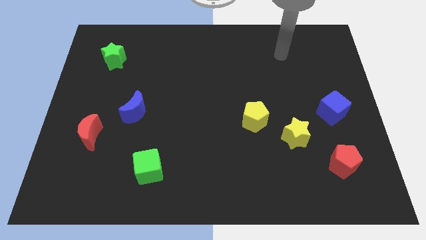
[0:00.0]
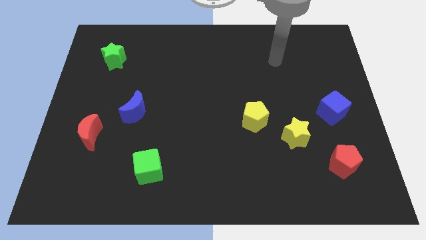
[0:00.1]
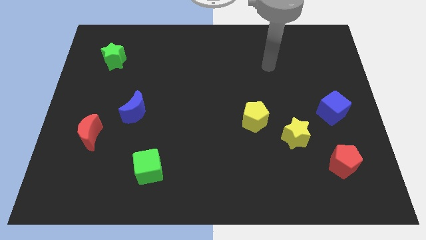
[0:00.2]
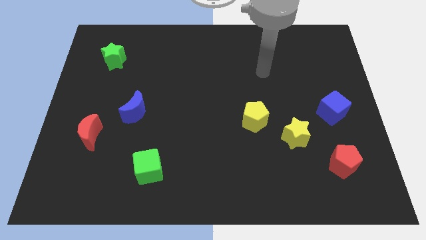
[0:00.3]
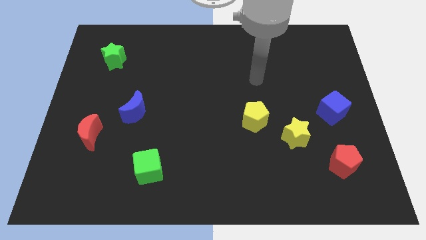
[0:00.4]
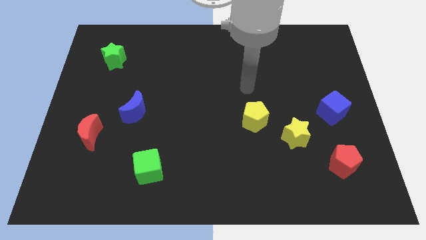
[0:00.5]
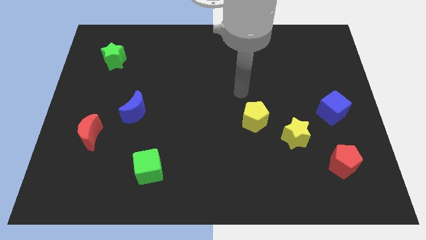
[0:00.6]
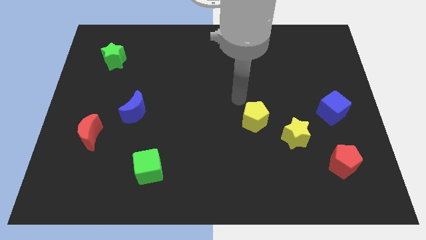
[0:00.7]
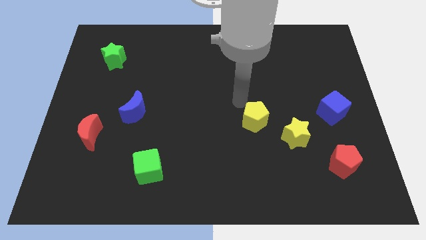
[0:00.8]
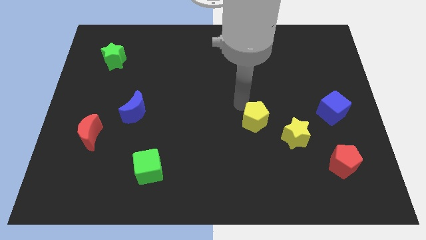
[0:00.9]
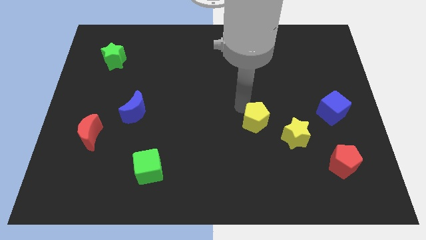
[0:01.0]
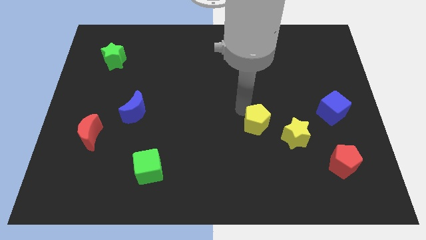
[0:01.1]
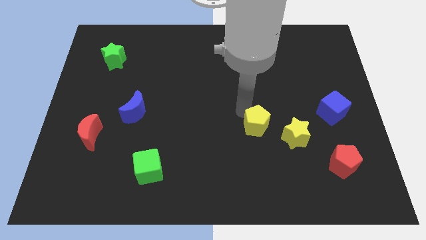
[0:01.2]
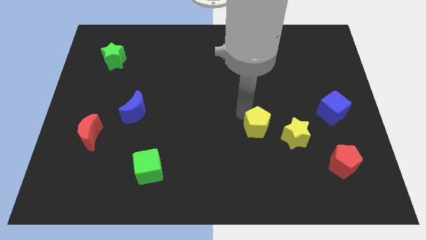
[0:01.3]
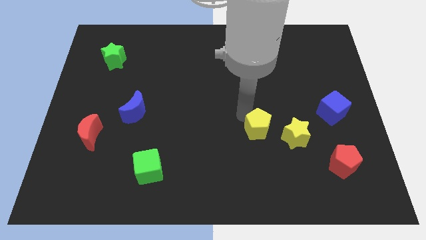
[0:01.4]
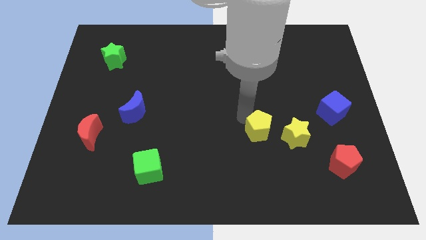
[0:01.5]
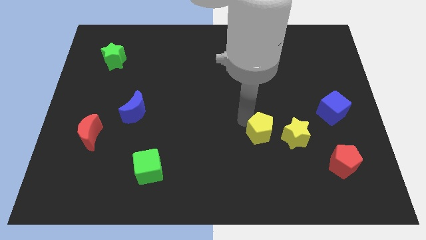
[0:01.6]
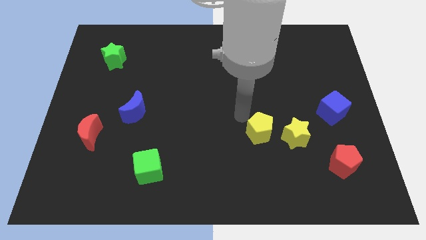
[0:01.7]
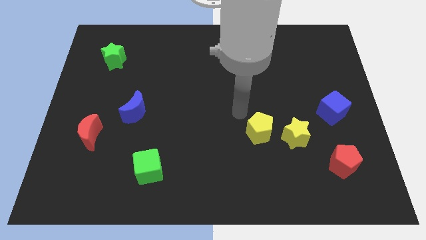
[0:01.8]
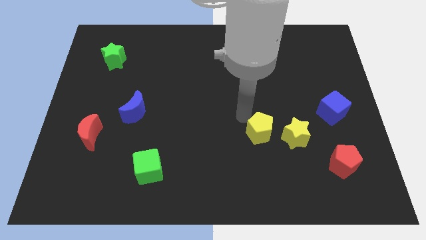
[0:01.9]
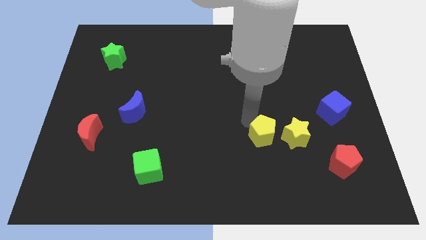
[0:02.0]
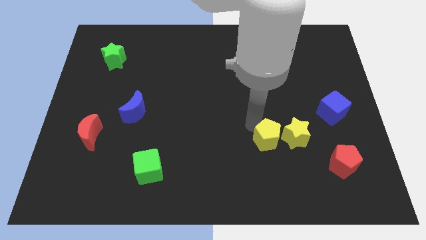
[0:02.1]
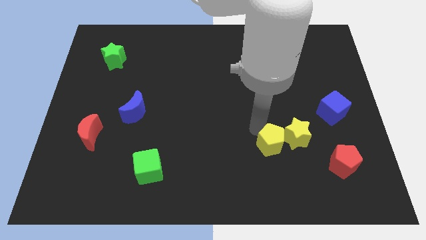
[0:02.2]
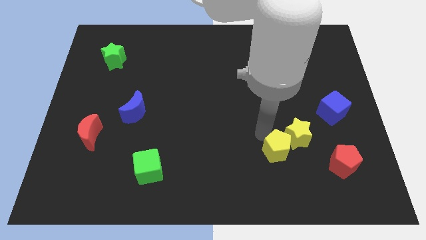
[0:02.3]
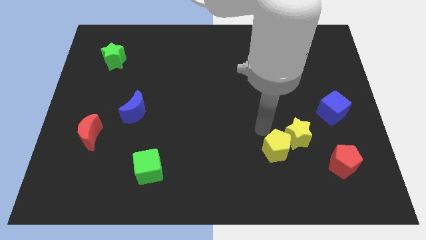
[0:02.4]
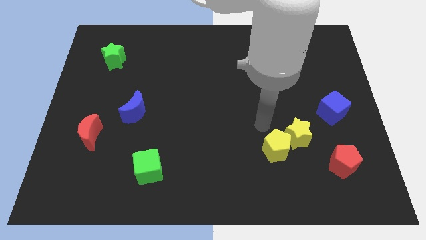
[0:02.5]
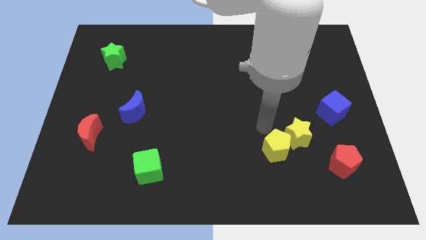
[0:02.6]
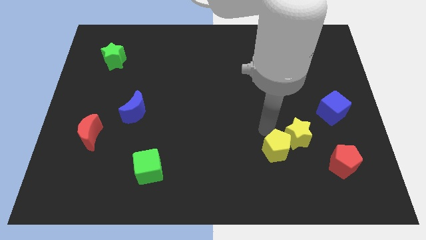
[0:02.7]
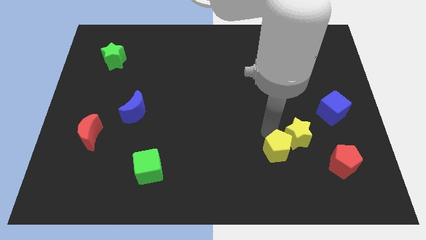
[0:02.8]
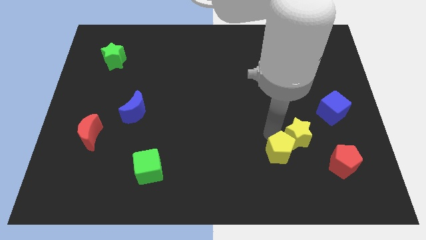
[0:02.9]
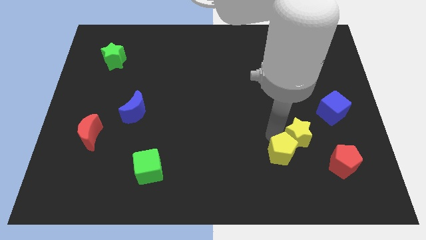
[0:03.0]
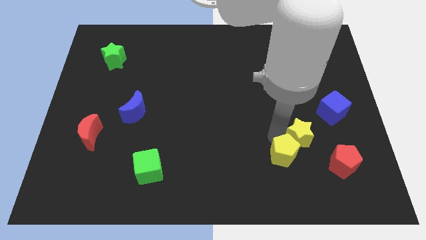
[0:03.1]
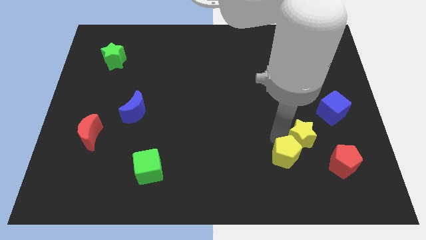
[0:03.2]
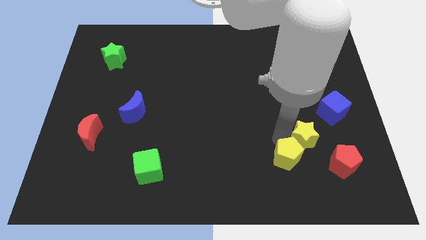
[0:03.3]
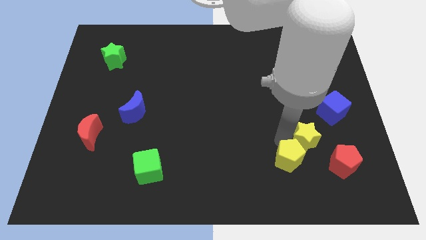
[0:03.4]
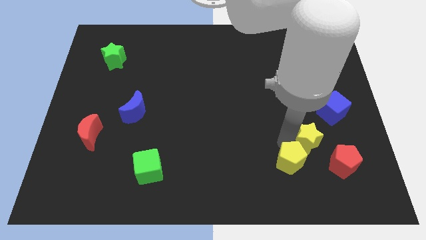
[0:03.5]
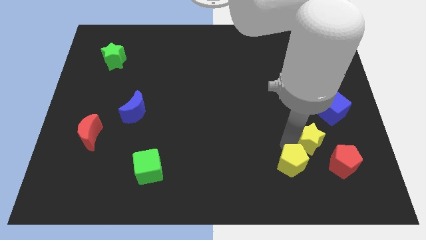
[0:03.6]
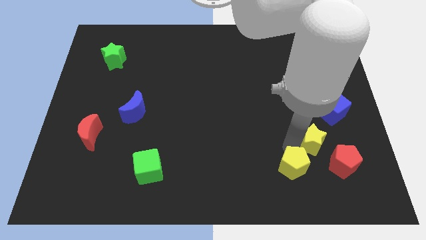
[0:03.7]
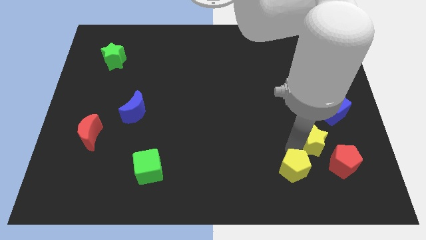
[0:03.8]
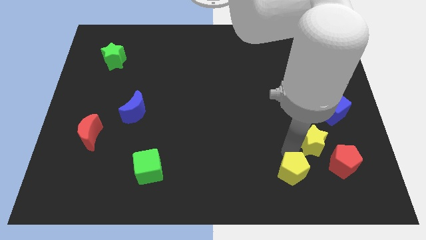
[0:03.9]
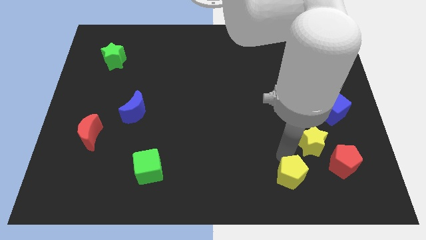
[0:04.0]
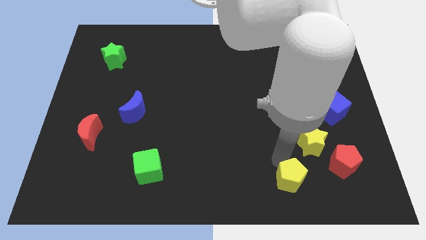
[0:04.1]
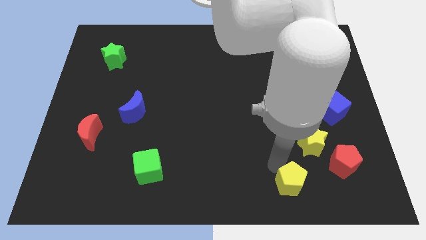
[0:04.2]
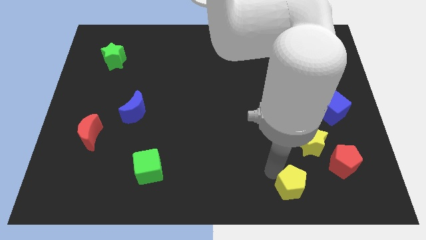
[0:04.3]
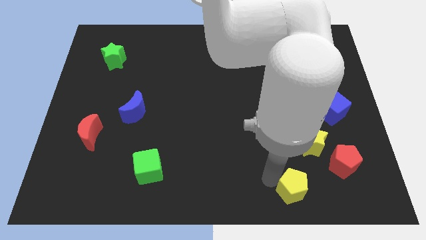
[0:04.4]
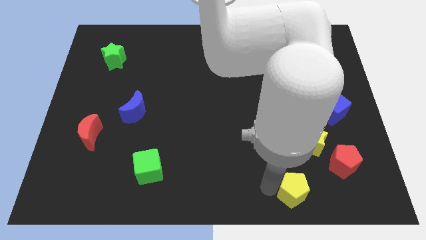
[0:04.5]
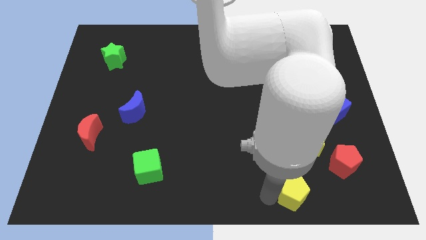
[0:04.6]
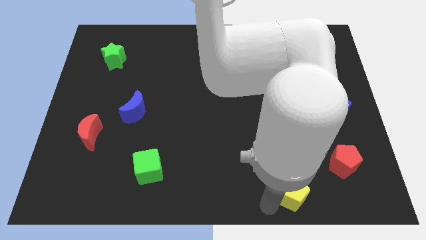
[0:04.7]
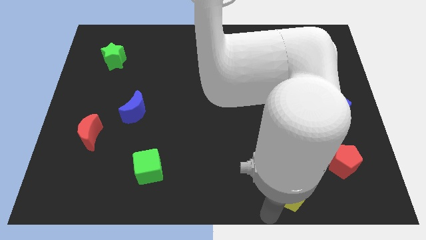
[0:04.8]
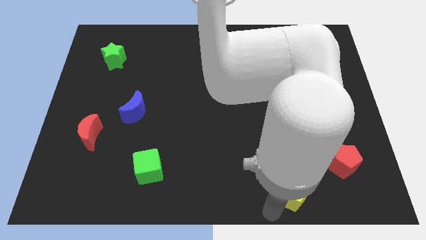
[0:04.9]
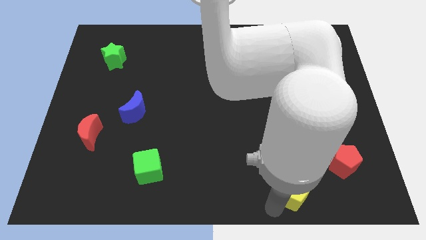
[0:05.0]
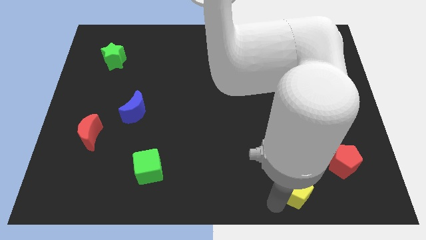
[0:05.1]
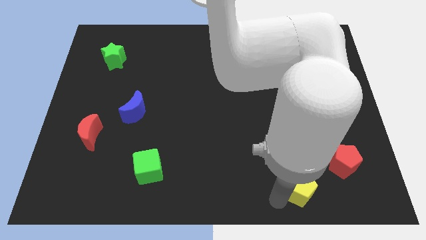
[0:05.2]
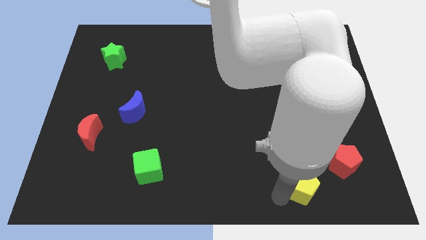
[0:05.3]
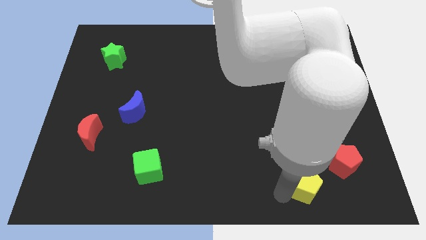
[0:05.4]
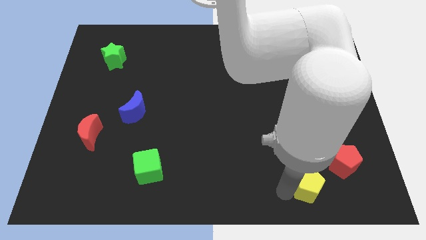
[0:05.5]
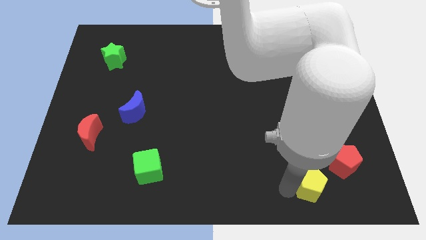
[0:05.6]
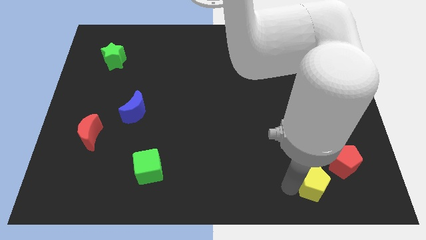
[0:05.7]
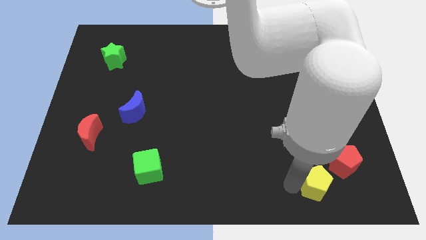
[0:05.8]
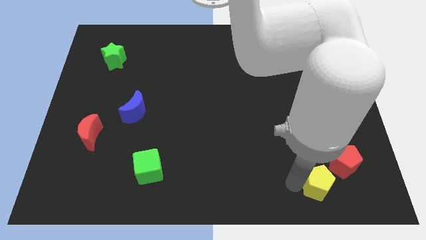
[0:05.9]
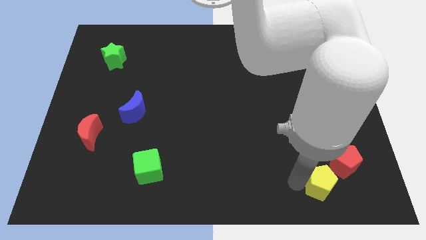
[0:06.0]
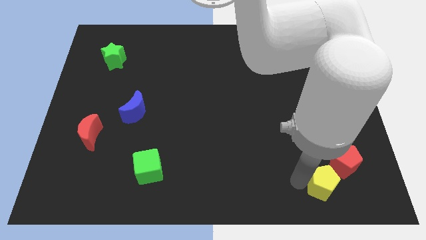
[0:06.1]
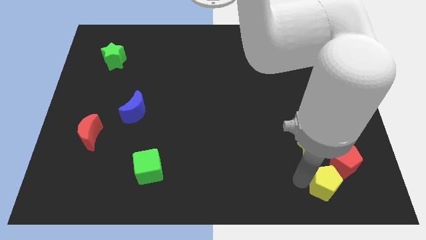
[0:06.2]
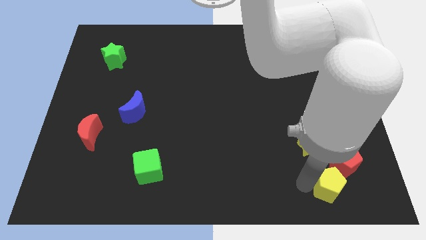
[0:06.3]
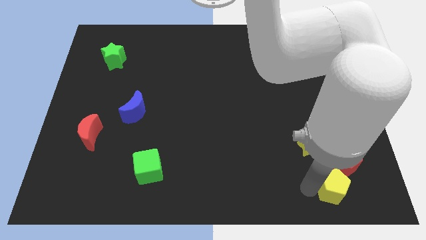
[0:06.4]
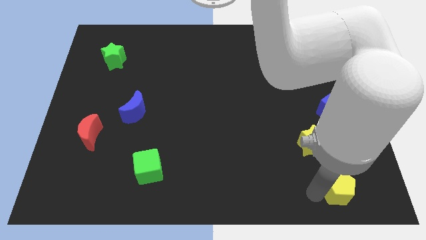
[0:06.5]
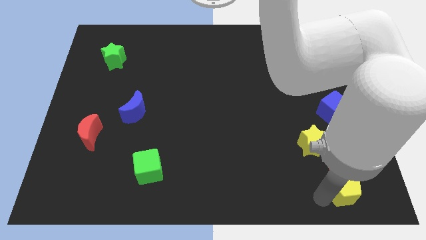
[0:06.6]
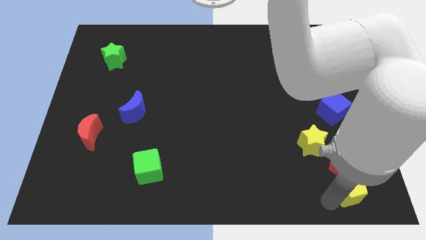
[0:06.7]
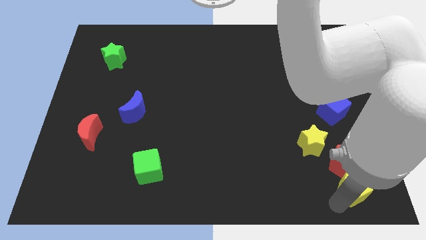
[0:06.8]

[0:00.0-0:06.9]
move the yellow pentagon to the red pentagon
